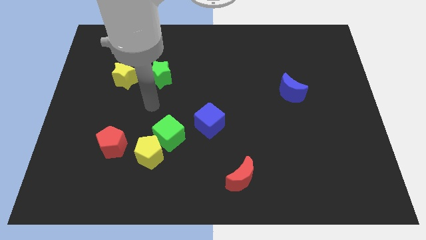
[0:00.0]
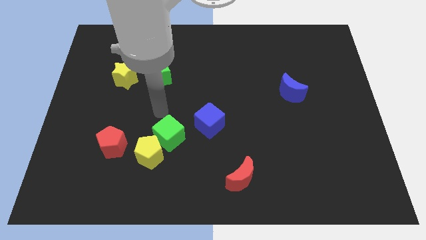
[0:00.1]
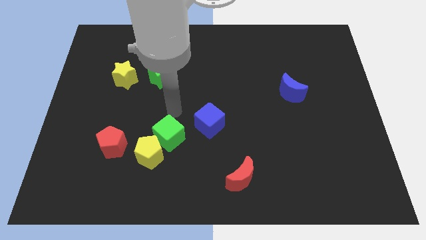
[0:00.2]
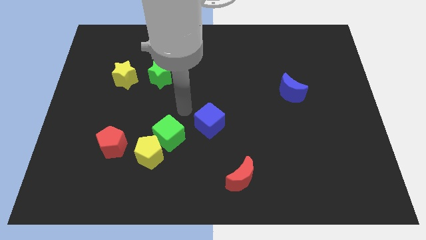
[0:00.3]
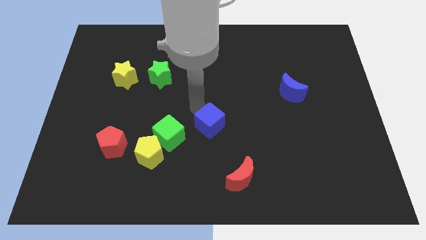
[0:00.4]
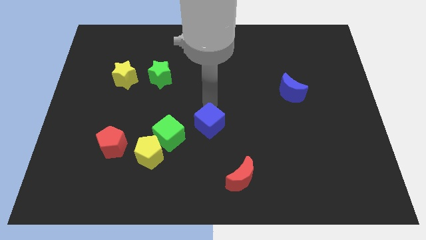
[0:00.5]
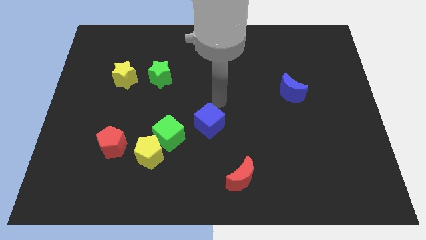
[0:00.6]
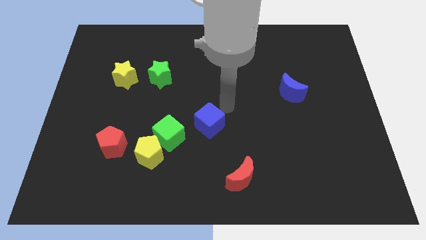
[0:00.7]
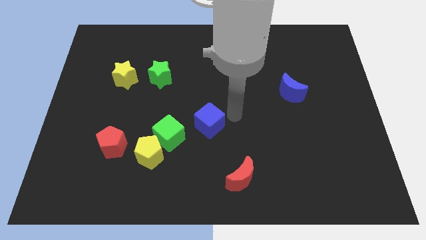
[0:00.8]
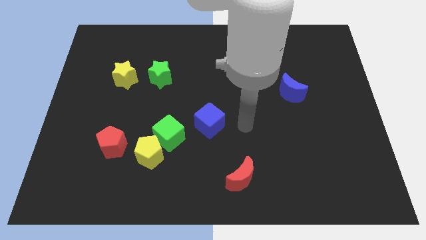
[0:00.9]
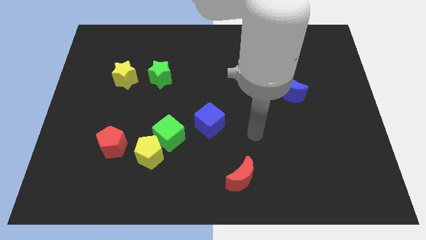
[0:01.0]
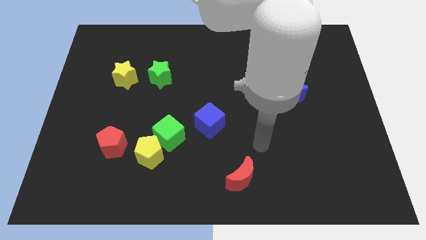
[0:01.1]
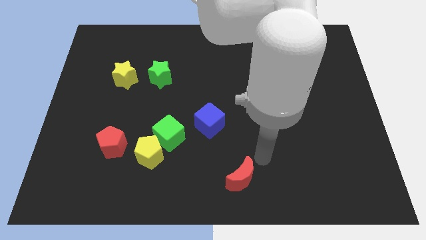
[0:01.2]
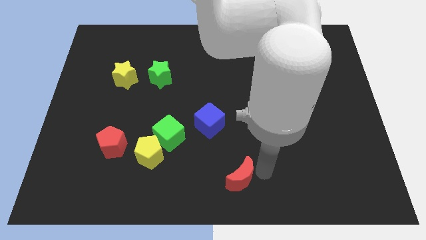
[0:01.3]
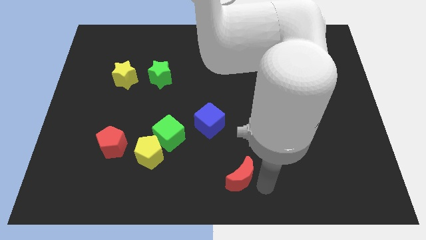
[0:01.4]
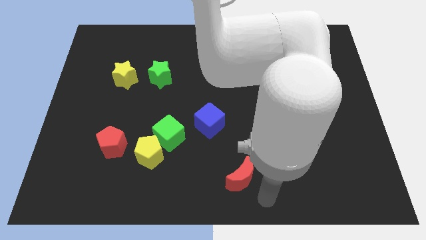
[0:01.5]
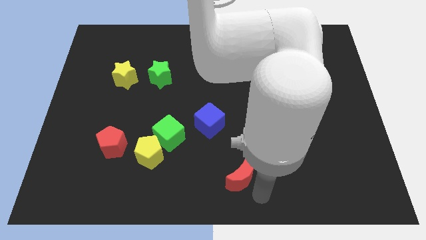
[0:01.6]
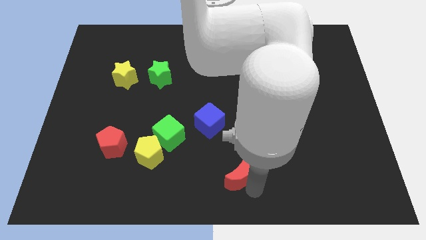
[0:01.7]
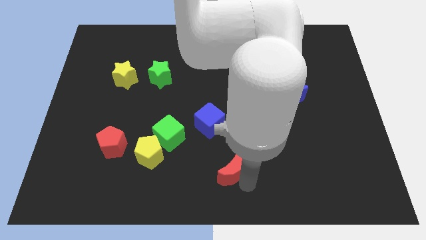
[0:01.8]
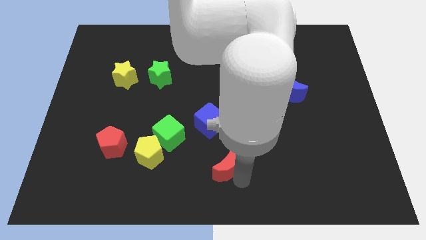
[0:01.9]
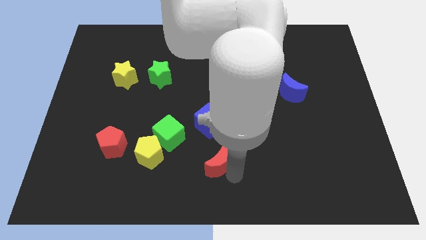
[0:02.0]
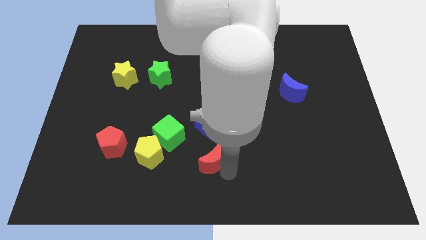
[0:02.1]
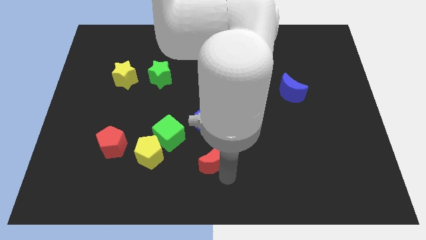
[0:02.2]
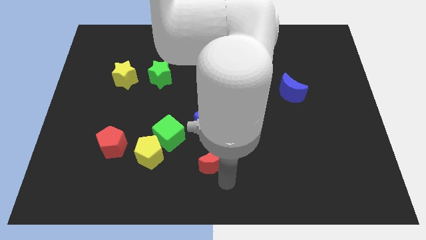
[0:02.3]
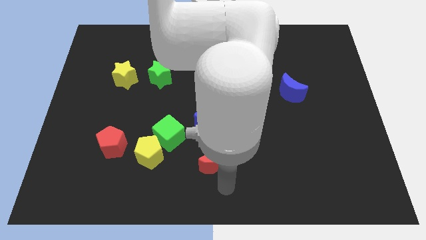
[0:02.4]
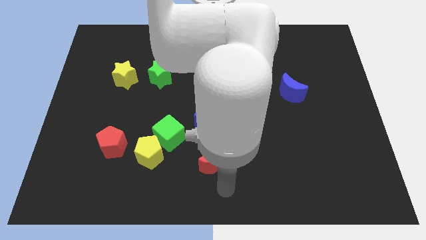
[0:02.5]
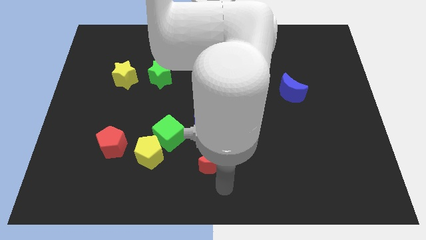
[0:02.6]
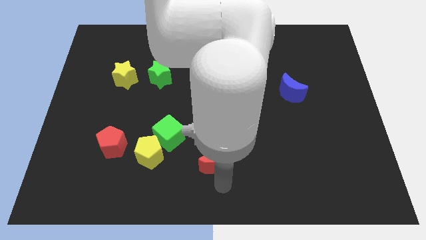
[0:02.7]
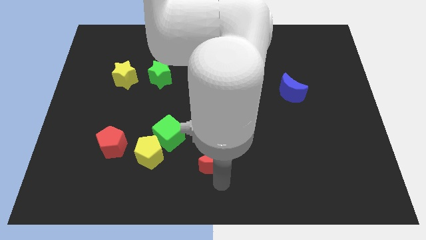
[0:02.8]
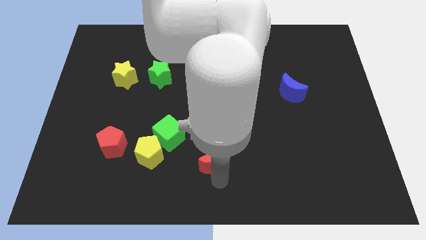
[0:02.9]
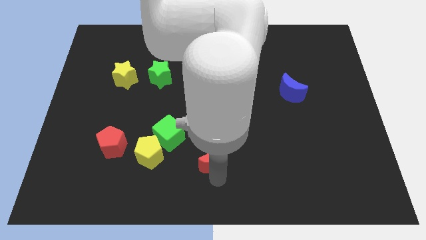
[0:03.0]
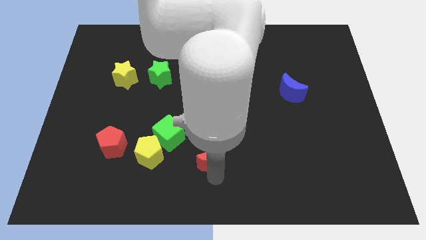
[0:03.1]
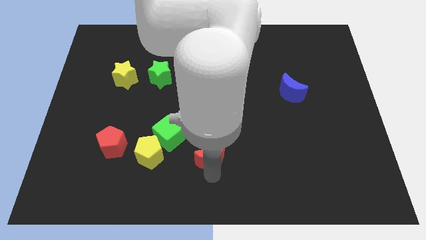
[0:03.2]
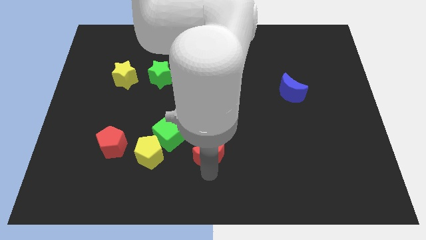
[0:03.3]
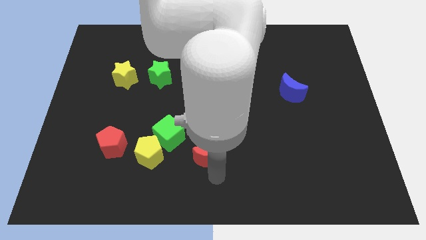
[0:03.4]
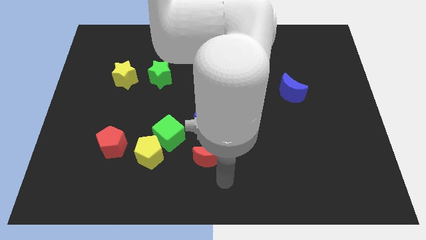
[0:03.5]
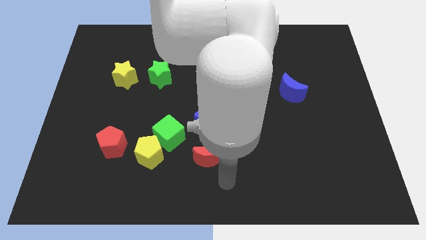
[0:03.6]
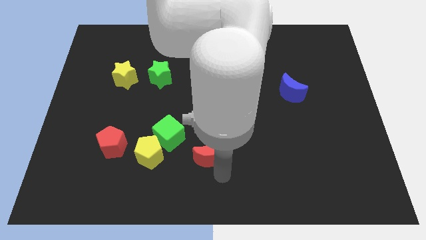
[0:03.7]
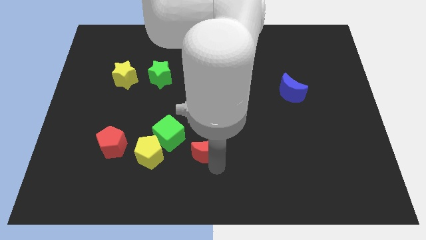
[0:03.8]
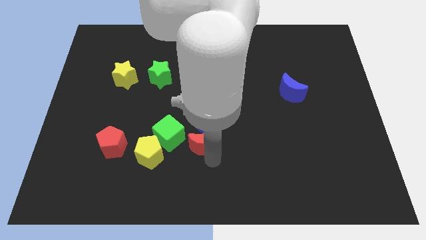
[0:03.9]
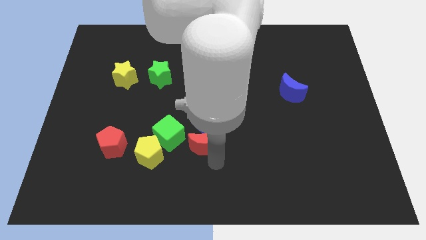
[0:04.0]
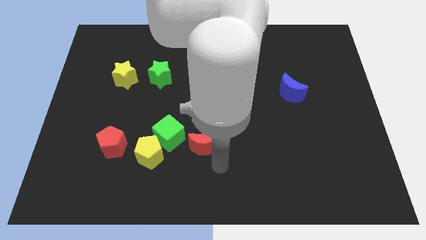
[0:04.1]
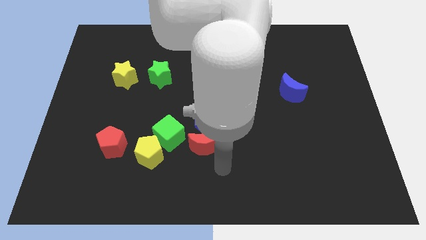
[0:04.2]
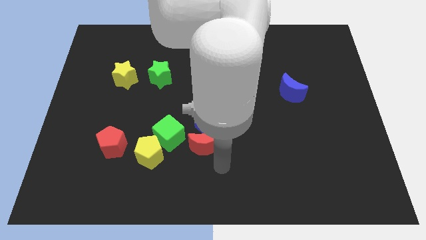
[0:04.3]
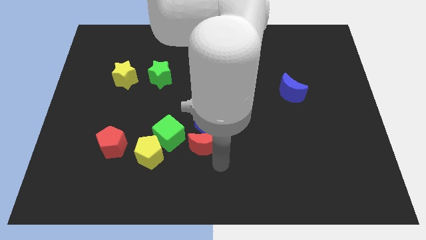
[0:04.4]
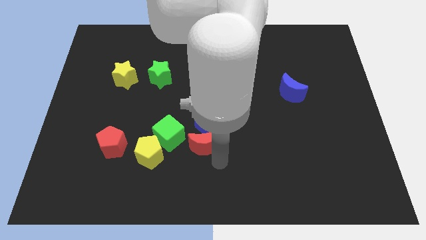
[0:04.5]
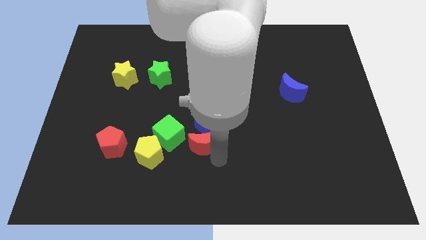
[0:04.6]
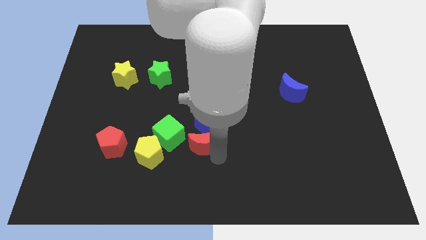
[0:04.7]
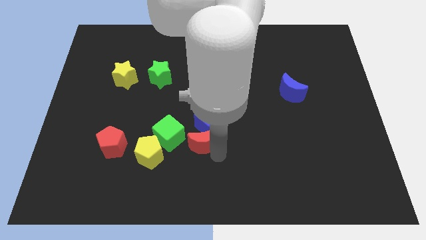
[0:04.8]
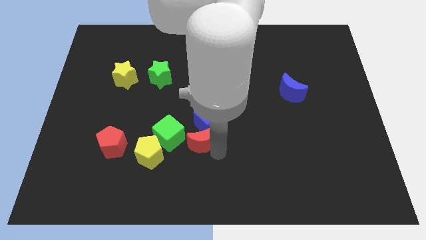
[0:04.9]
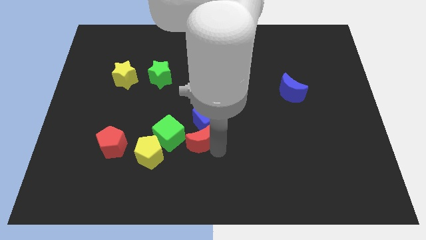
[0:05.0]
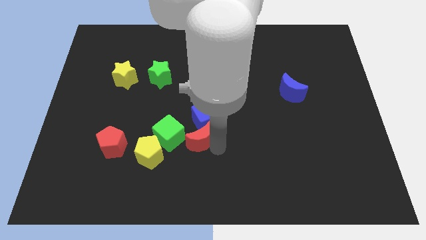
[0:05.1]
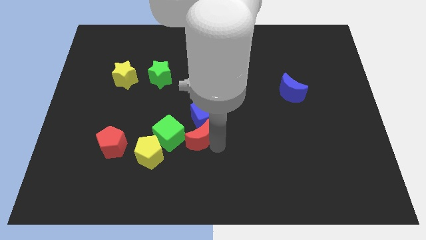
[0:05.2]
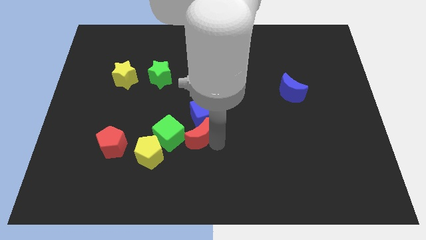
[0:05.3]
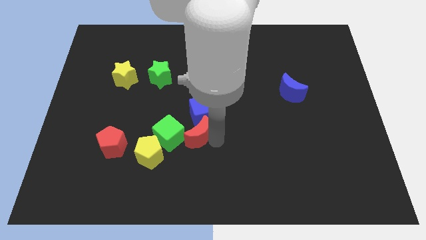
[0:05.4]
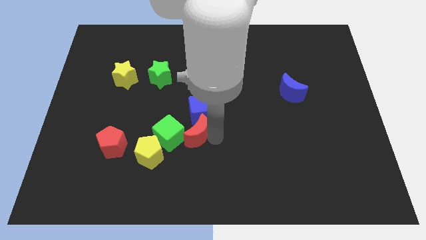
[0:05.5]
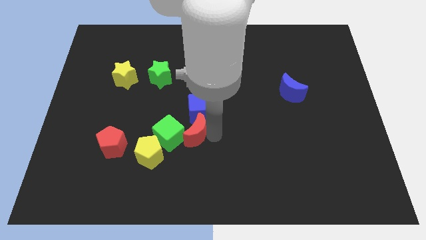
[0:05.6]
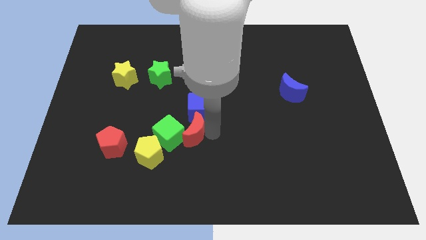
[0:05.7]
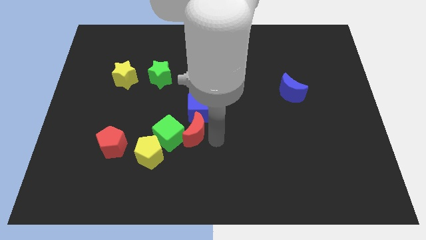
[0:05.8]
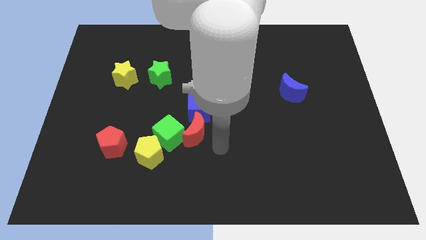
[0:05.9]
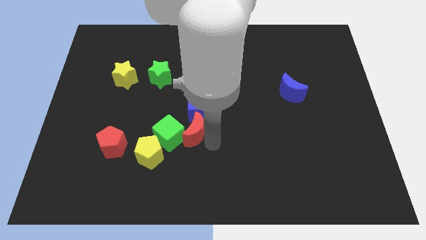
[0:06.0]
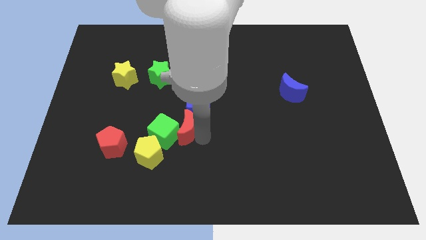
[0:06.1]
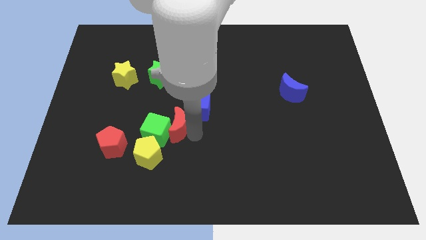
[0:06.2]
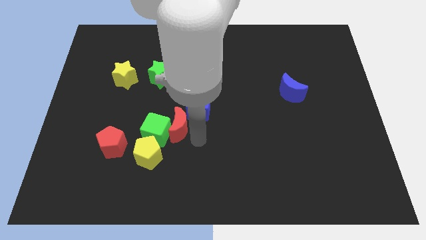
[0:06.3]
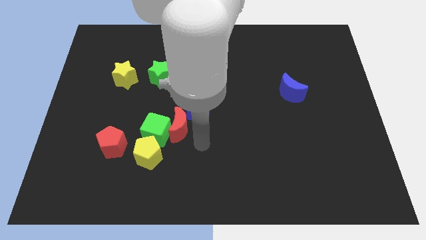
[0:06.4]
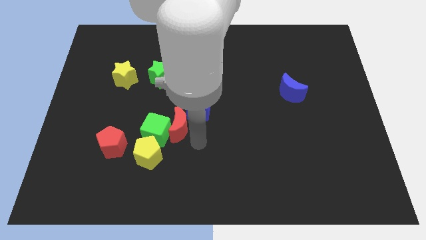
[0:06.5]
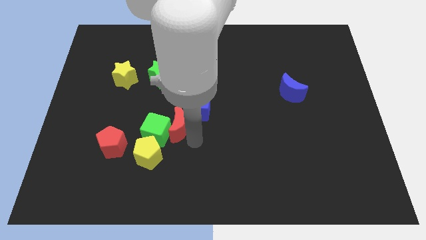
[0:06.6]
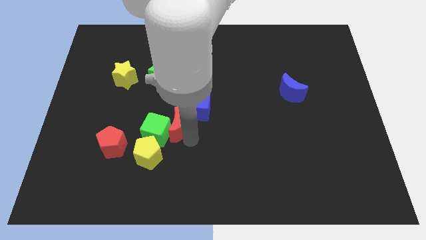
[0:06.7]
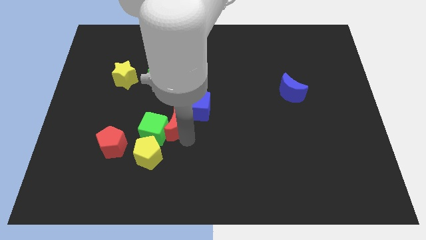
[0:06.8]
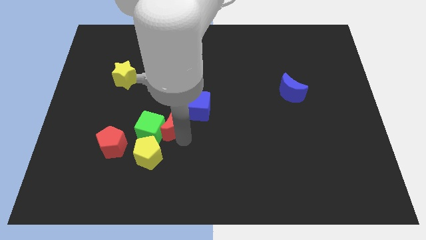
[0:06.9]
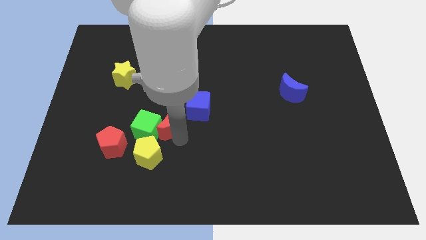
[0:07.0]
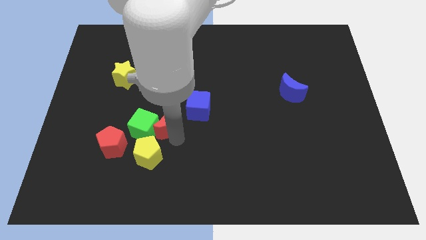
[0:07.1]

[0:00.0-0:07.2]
push the red moon below the green star
